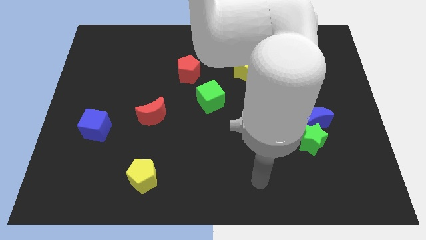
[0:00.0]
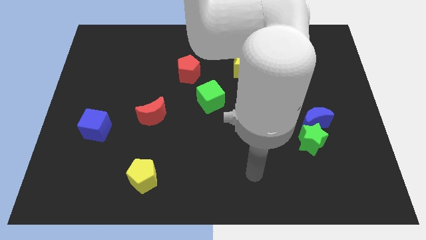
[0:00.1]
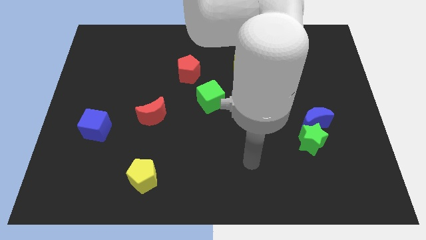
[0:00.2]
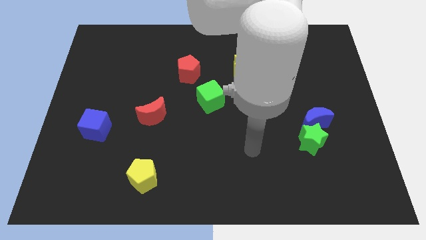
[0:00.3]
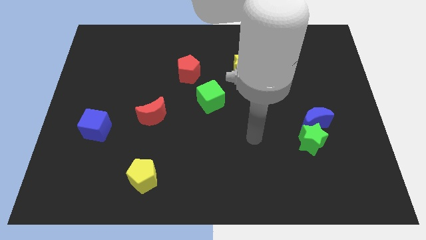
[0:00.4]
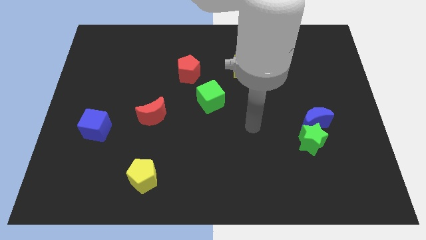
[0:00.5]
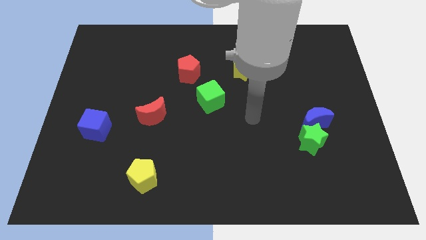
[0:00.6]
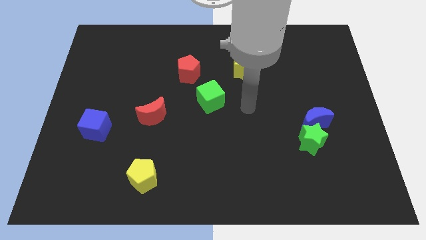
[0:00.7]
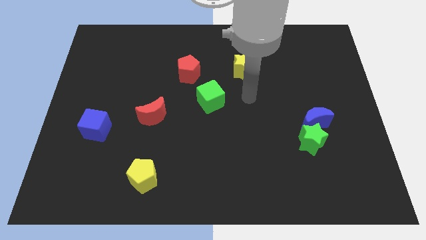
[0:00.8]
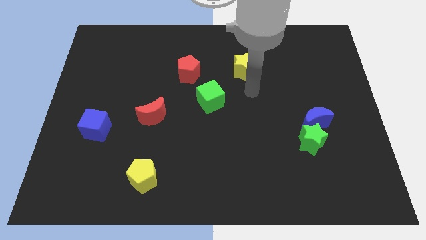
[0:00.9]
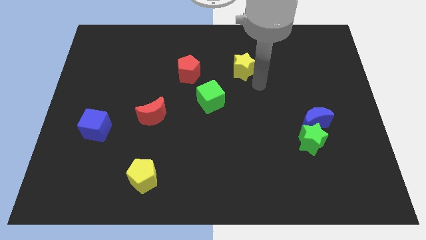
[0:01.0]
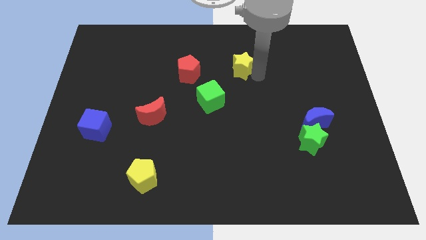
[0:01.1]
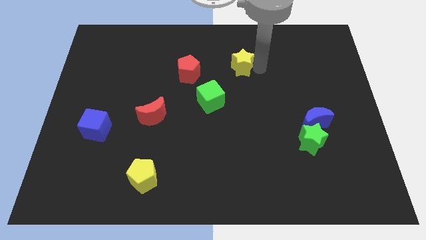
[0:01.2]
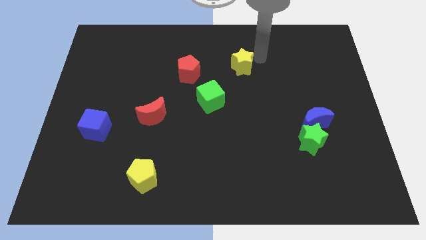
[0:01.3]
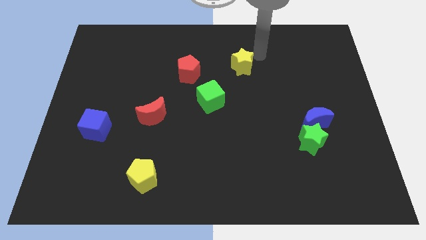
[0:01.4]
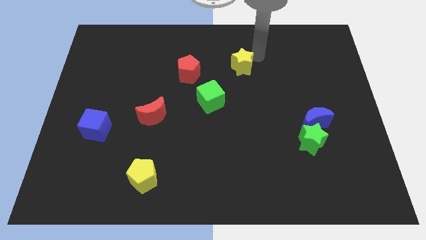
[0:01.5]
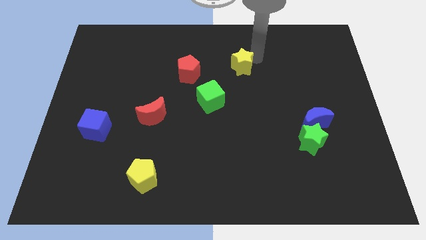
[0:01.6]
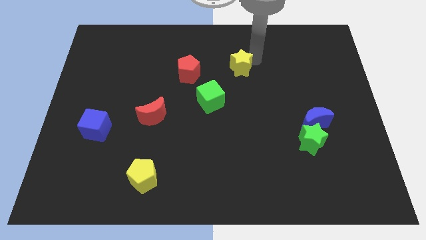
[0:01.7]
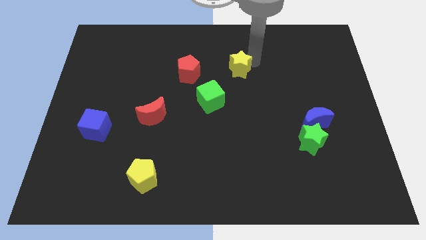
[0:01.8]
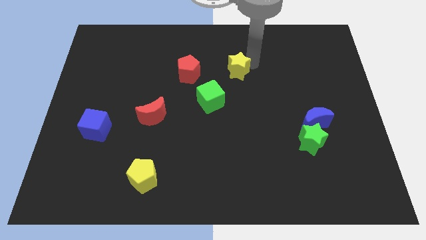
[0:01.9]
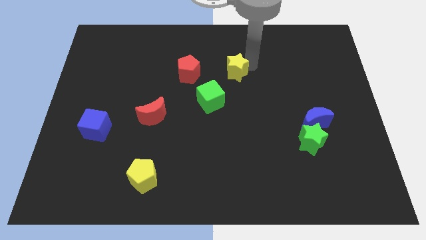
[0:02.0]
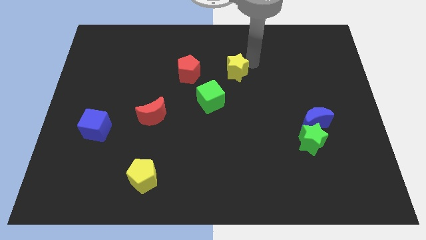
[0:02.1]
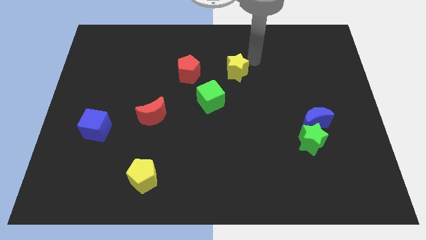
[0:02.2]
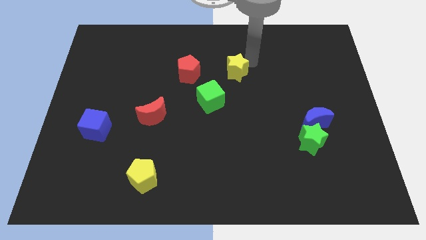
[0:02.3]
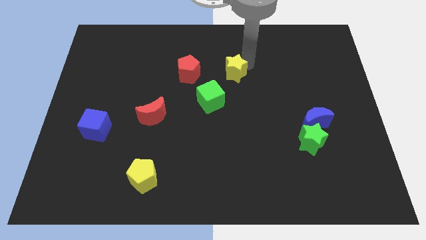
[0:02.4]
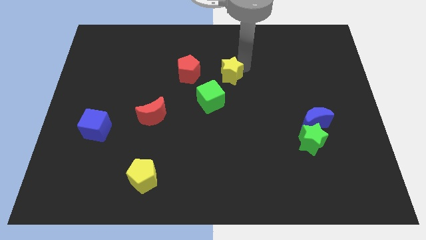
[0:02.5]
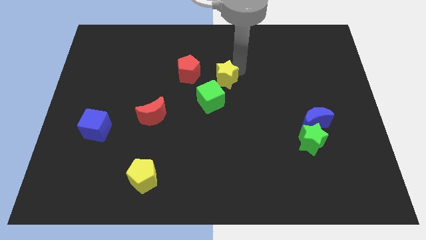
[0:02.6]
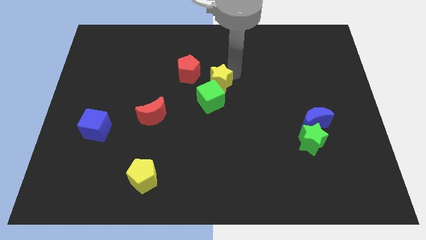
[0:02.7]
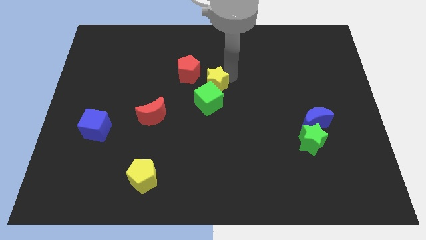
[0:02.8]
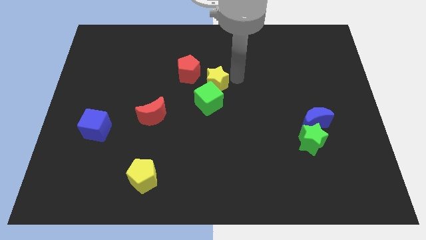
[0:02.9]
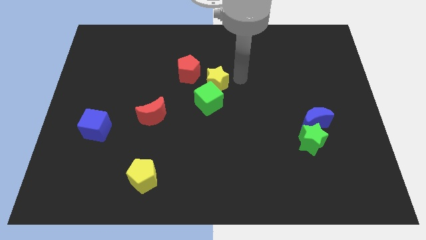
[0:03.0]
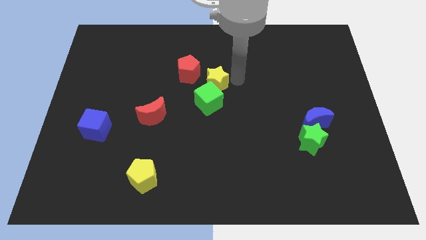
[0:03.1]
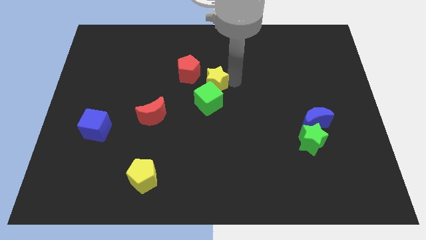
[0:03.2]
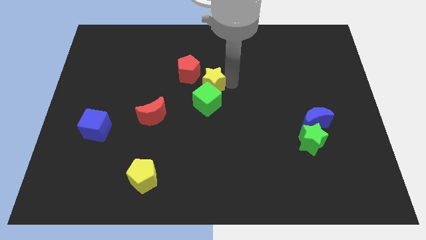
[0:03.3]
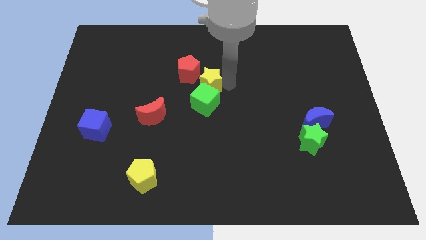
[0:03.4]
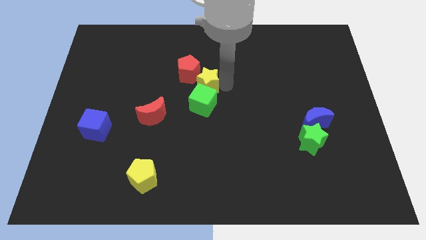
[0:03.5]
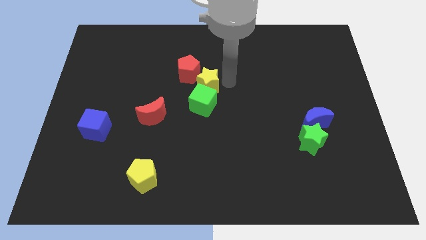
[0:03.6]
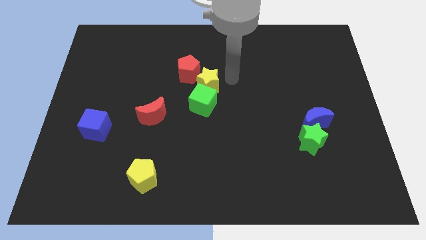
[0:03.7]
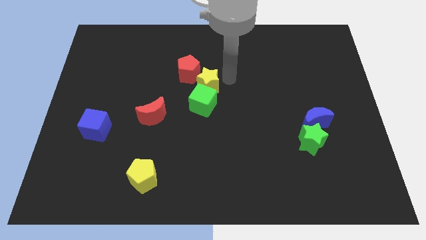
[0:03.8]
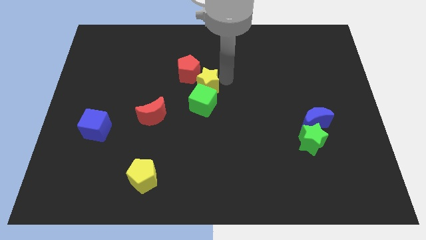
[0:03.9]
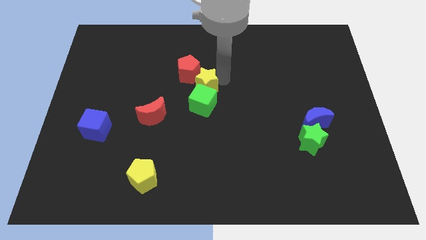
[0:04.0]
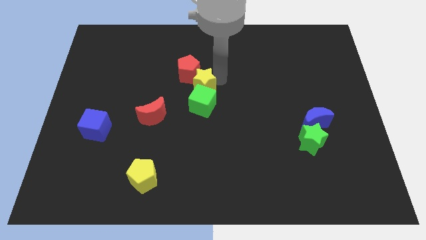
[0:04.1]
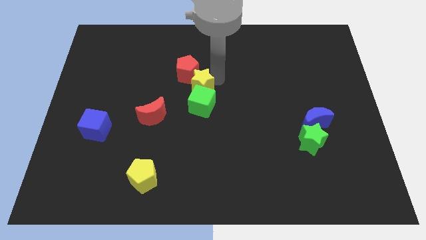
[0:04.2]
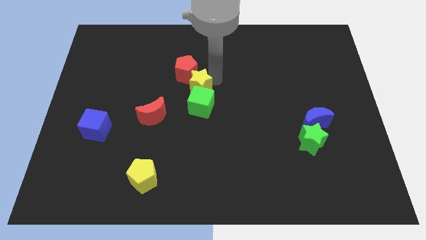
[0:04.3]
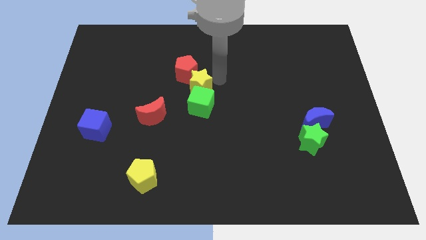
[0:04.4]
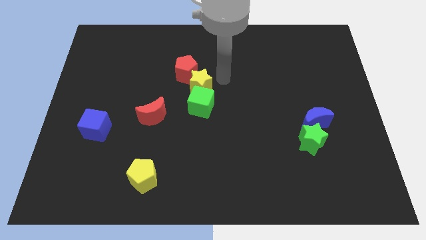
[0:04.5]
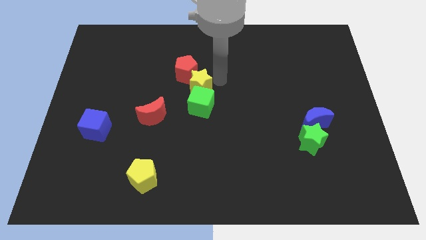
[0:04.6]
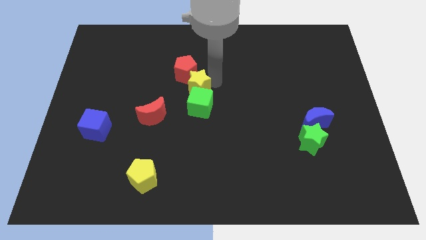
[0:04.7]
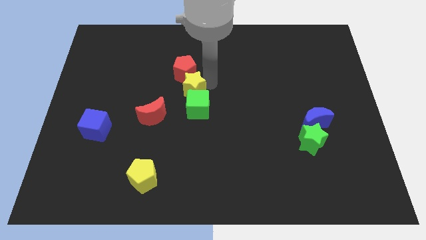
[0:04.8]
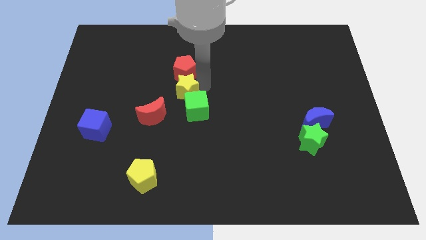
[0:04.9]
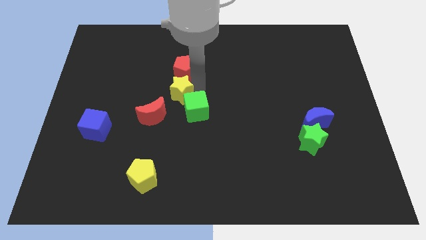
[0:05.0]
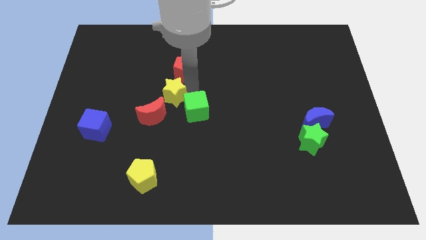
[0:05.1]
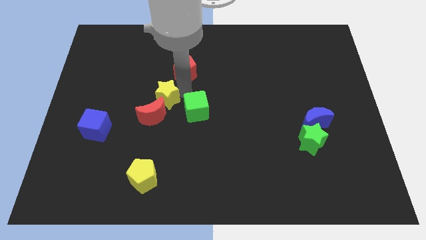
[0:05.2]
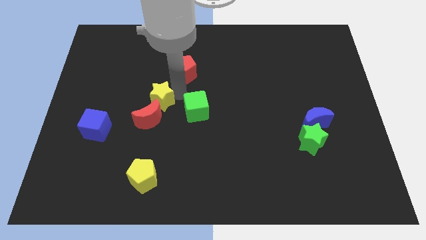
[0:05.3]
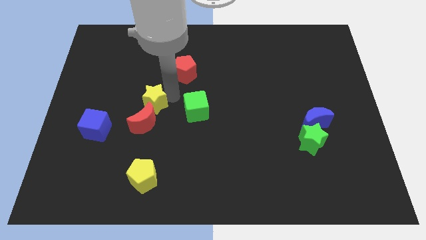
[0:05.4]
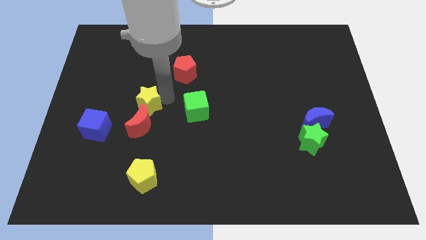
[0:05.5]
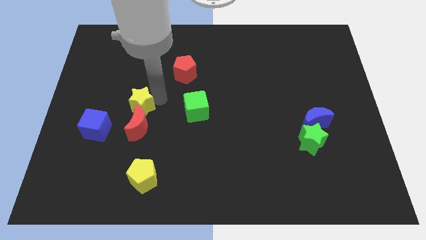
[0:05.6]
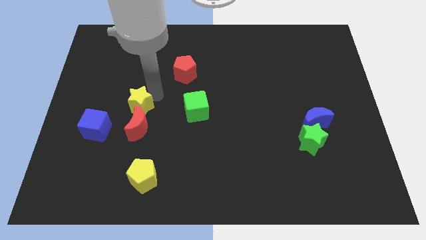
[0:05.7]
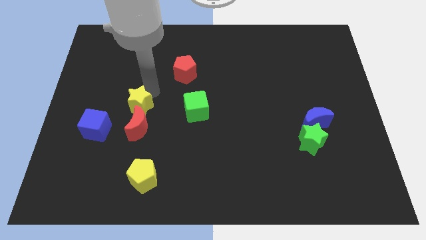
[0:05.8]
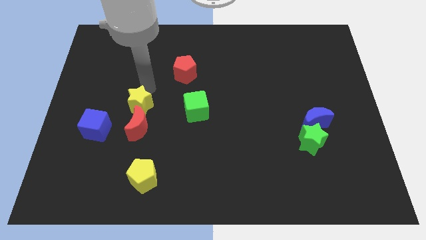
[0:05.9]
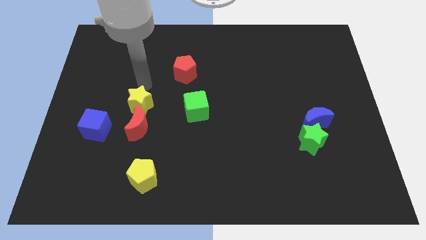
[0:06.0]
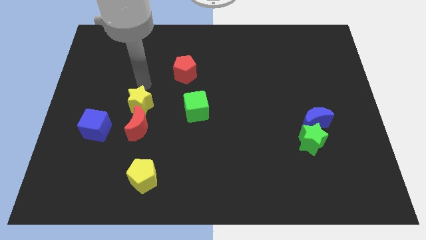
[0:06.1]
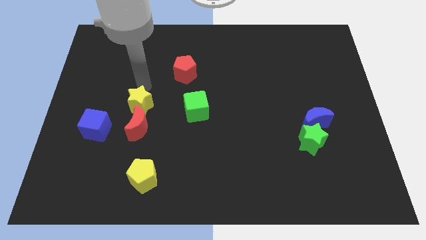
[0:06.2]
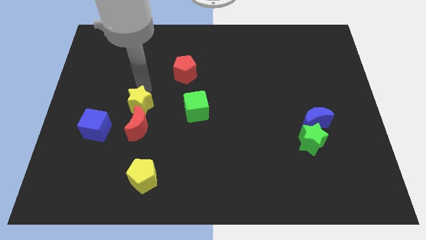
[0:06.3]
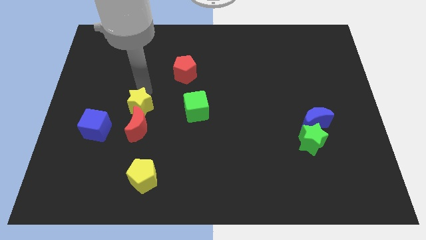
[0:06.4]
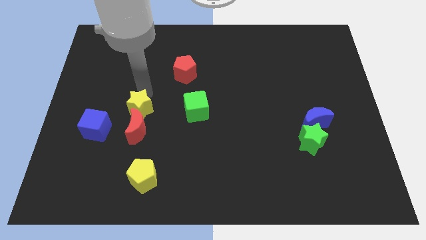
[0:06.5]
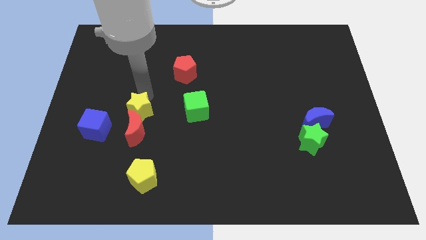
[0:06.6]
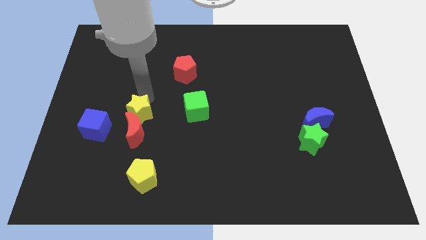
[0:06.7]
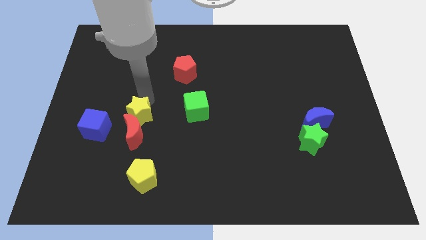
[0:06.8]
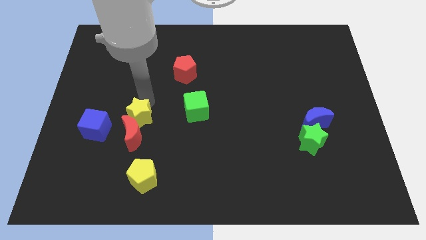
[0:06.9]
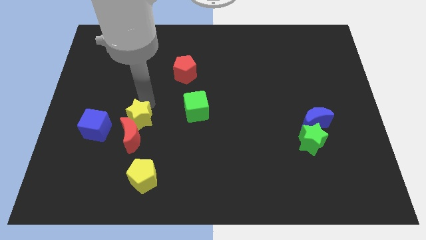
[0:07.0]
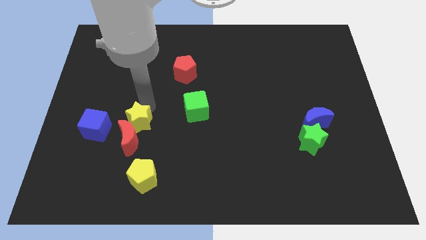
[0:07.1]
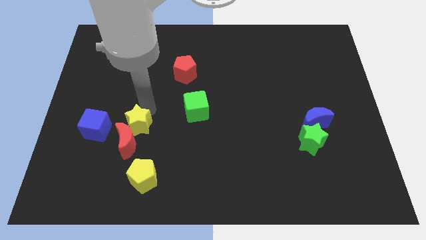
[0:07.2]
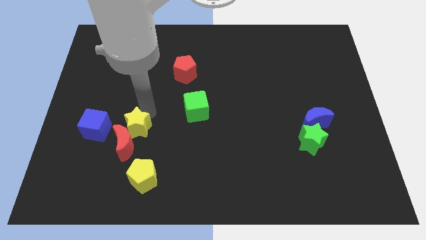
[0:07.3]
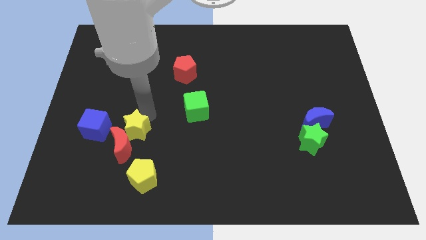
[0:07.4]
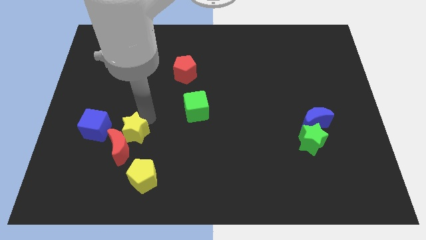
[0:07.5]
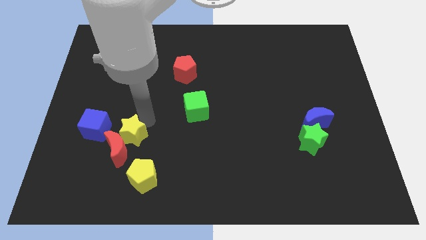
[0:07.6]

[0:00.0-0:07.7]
slide the yellow star to the bottom right side of the blue cube
